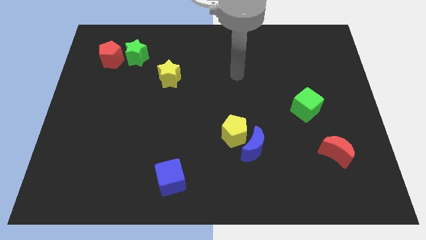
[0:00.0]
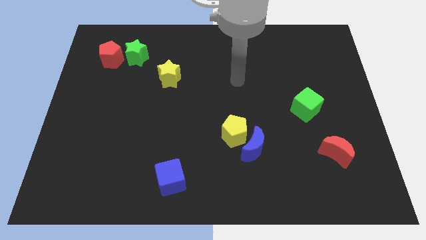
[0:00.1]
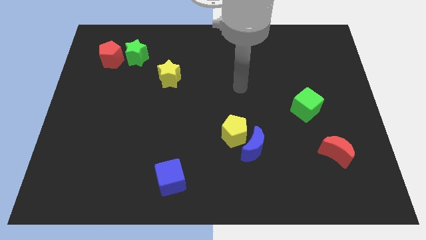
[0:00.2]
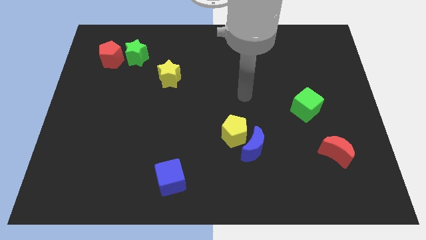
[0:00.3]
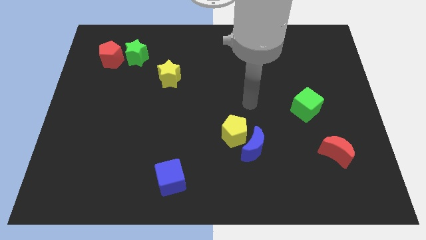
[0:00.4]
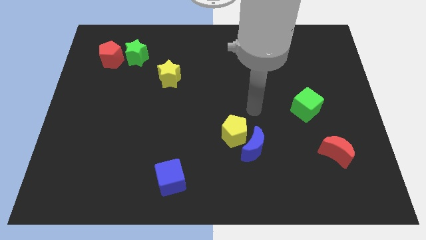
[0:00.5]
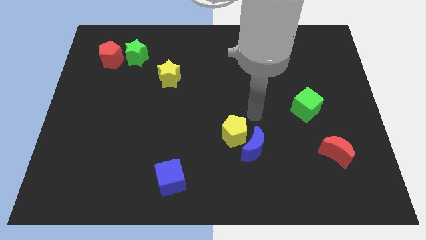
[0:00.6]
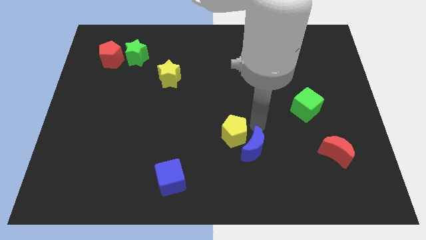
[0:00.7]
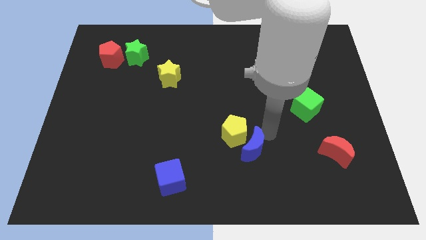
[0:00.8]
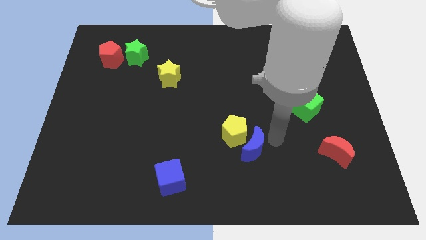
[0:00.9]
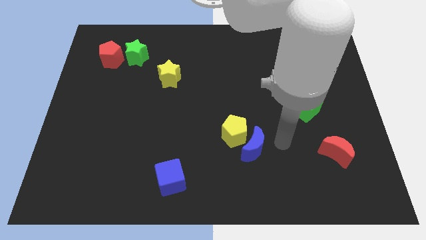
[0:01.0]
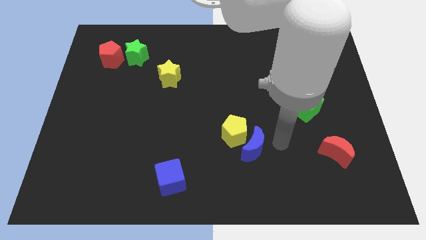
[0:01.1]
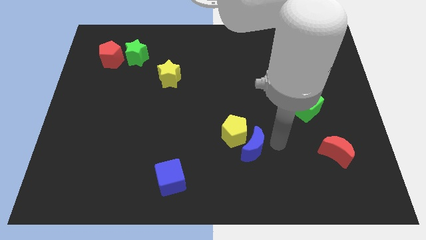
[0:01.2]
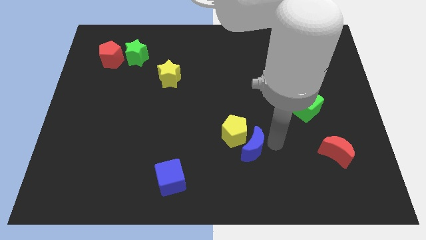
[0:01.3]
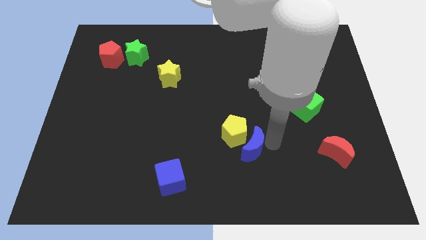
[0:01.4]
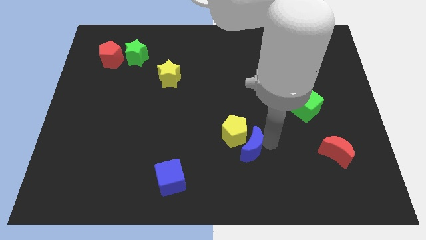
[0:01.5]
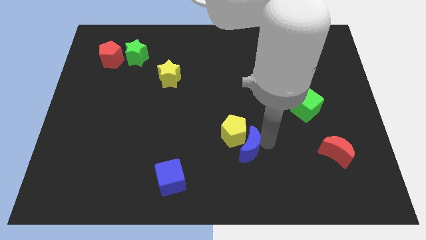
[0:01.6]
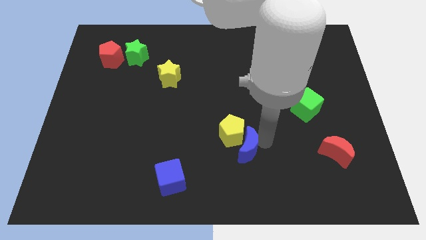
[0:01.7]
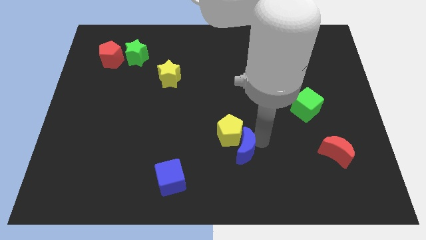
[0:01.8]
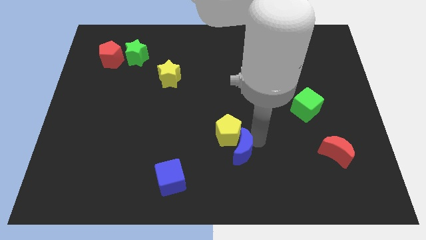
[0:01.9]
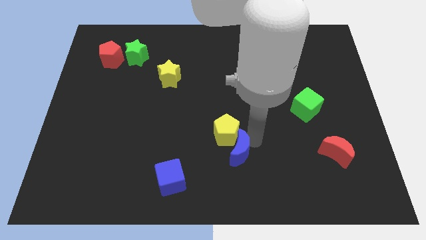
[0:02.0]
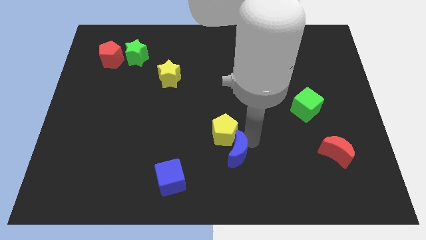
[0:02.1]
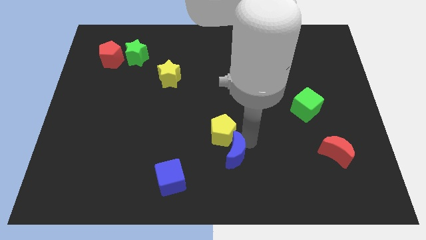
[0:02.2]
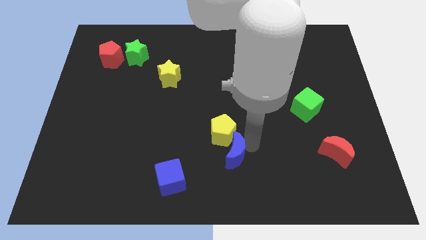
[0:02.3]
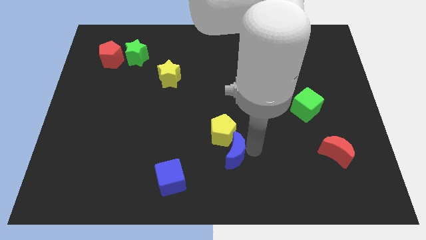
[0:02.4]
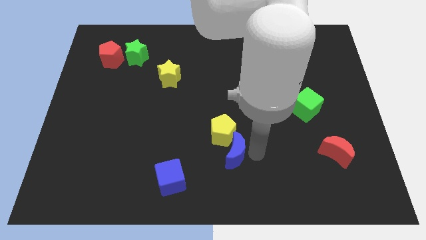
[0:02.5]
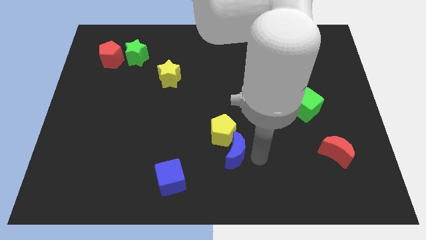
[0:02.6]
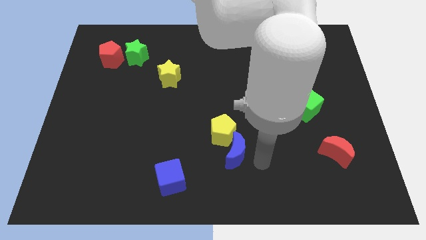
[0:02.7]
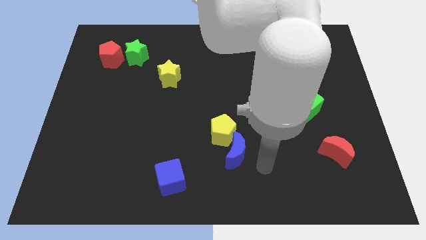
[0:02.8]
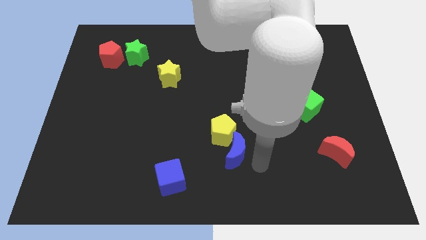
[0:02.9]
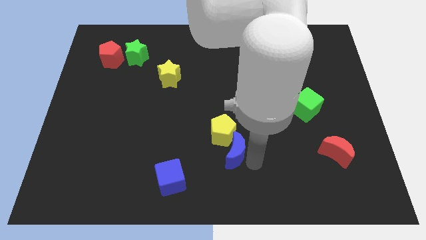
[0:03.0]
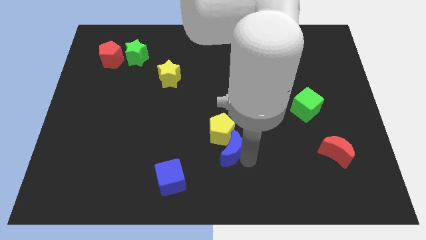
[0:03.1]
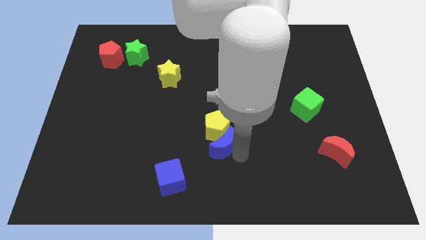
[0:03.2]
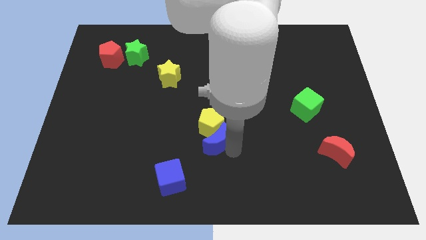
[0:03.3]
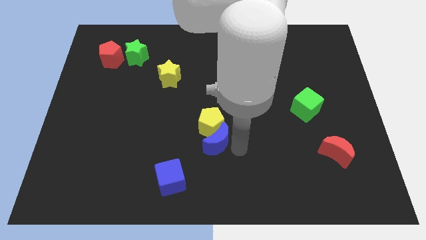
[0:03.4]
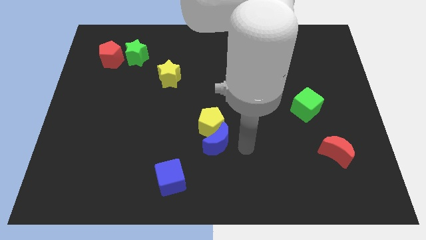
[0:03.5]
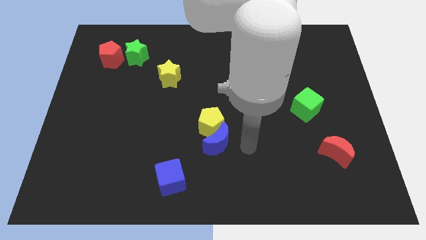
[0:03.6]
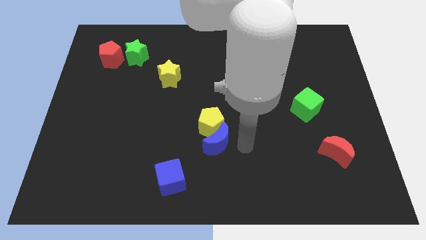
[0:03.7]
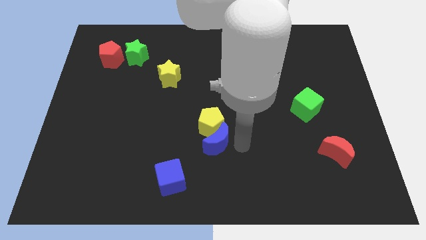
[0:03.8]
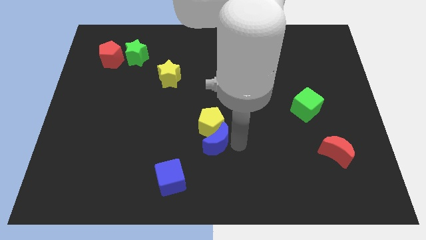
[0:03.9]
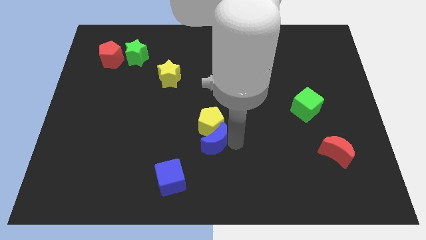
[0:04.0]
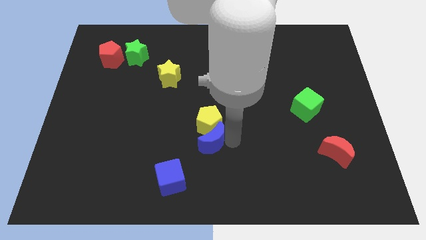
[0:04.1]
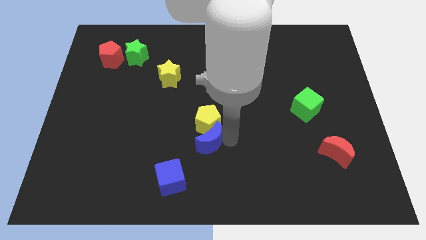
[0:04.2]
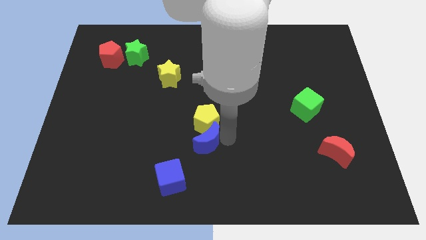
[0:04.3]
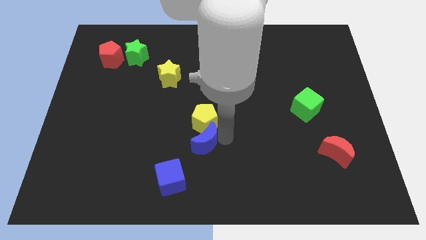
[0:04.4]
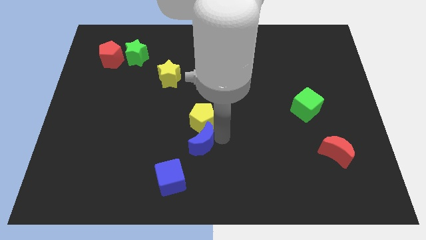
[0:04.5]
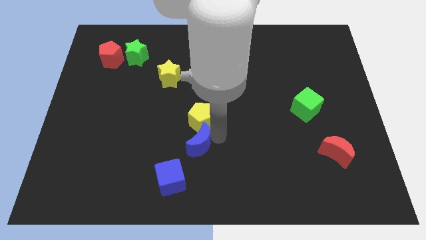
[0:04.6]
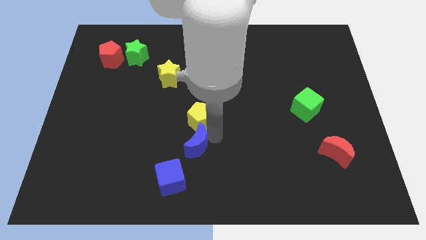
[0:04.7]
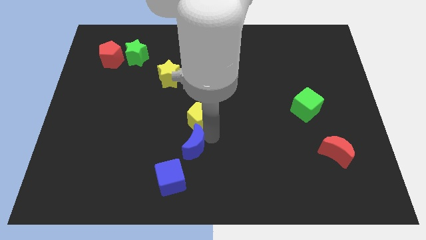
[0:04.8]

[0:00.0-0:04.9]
put the blue moon above the blue cube

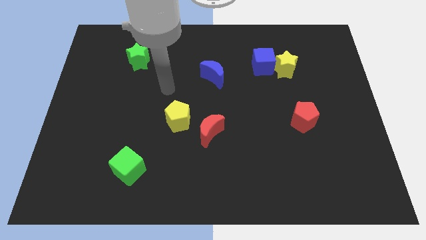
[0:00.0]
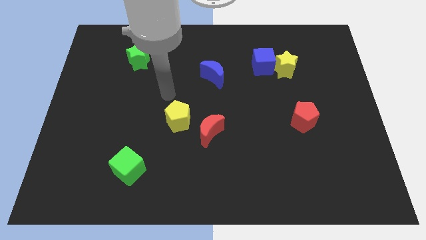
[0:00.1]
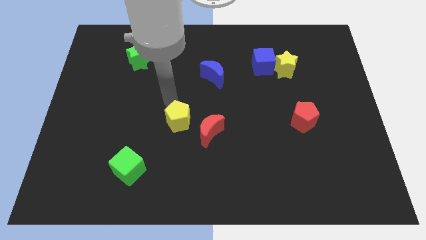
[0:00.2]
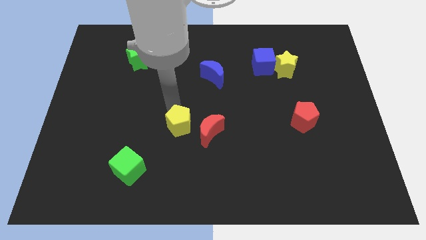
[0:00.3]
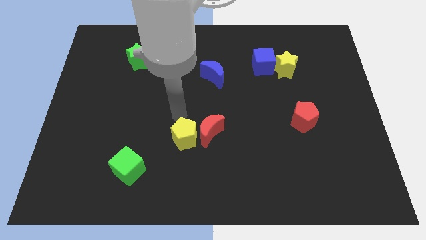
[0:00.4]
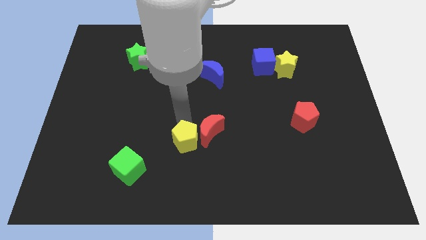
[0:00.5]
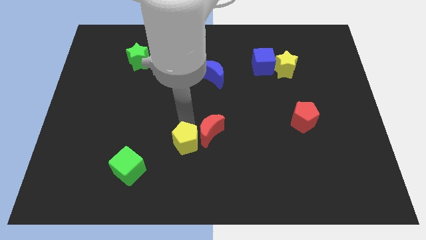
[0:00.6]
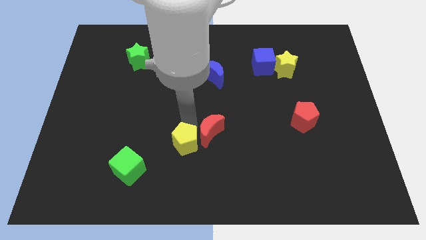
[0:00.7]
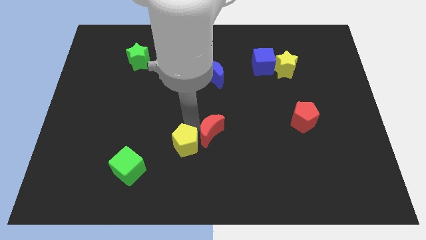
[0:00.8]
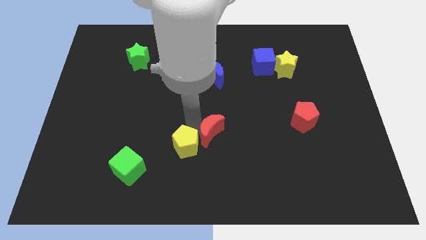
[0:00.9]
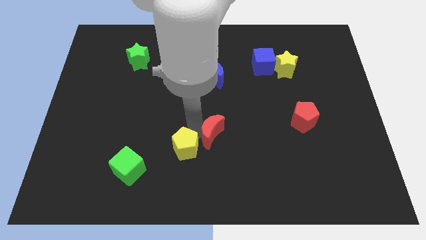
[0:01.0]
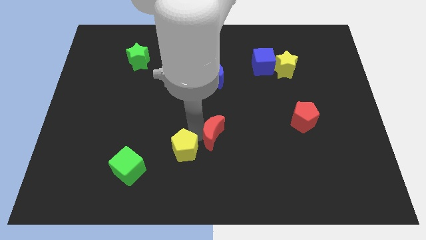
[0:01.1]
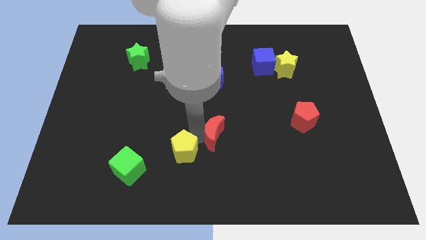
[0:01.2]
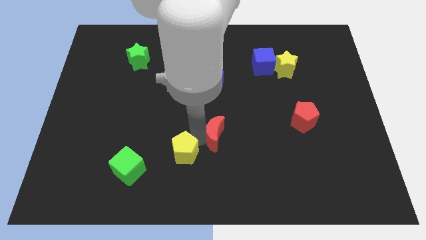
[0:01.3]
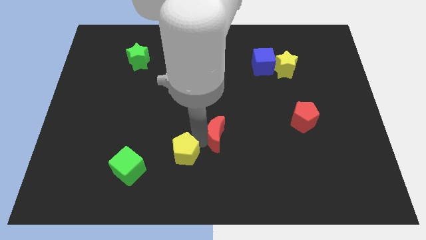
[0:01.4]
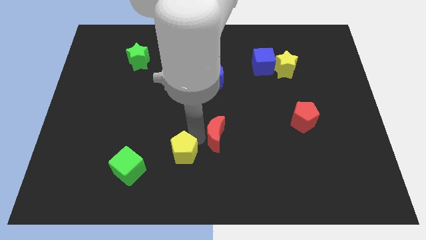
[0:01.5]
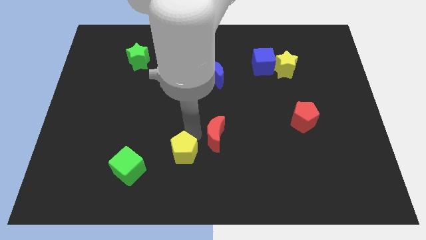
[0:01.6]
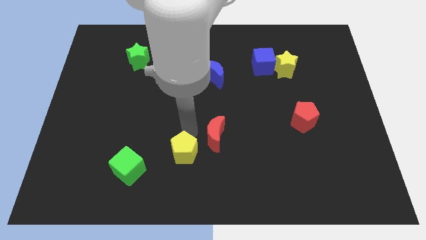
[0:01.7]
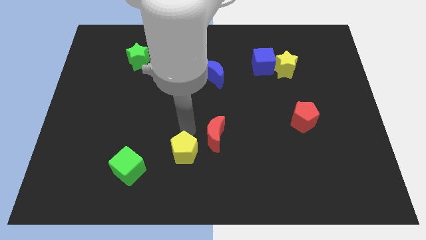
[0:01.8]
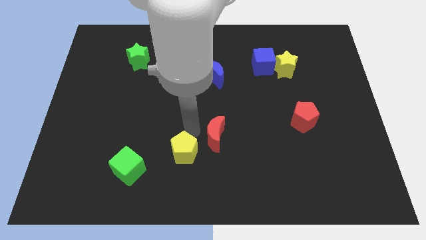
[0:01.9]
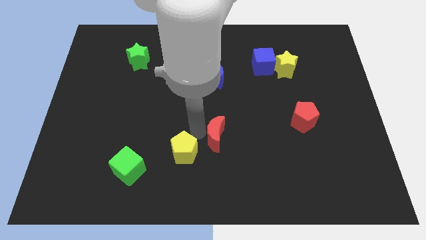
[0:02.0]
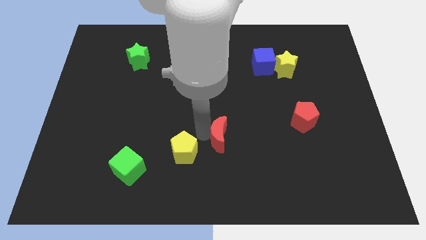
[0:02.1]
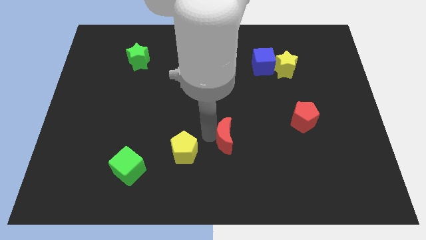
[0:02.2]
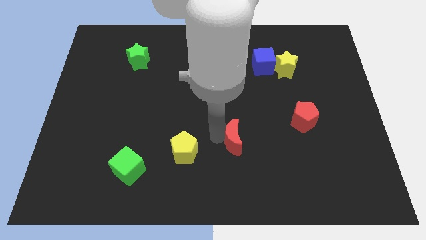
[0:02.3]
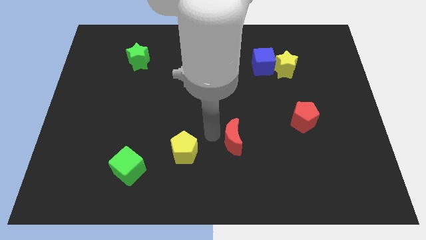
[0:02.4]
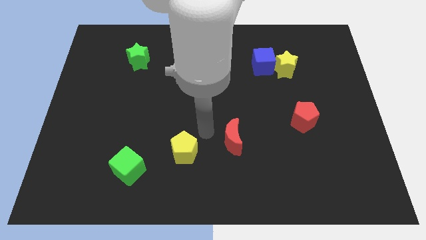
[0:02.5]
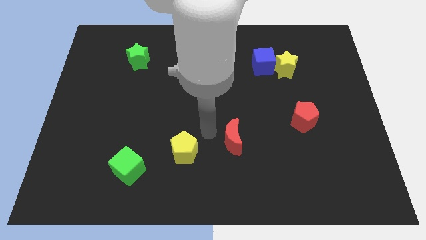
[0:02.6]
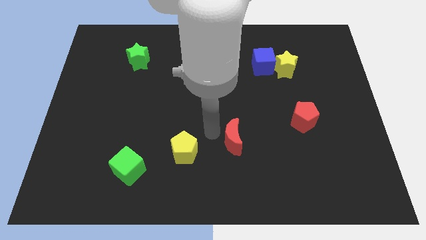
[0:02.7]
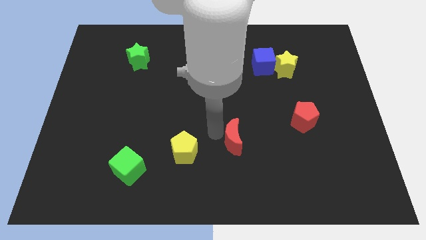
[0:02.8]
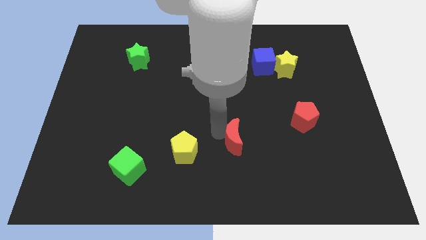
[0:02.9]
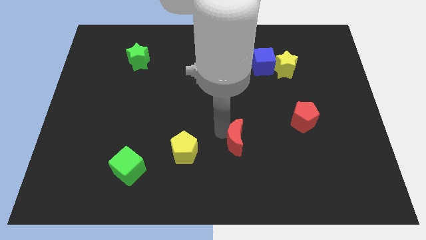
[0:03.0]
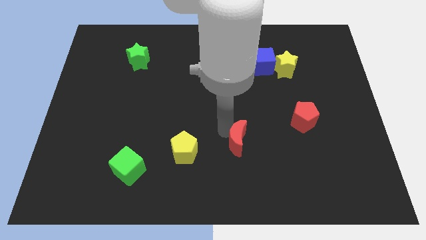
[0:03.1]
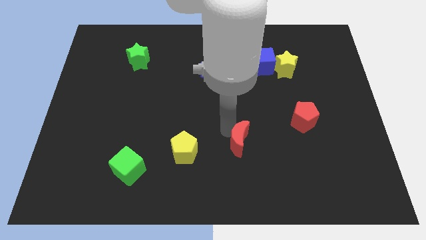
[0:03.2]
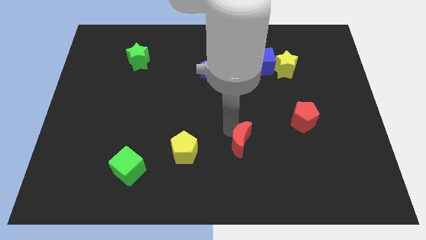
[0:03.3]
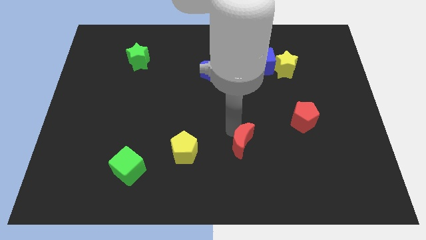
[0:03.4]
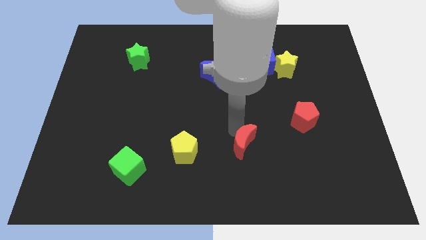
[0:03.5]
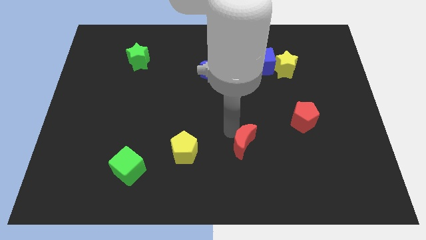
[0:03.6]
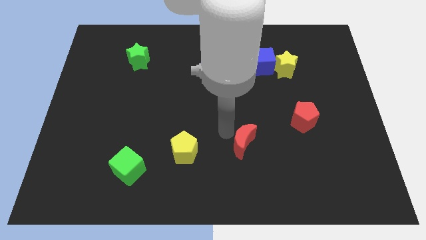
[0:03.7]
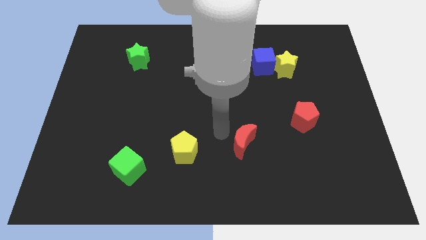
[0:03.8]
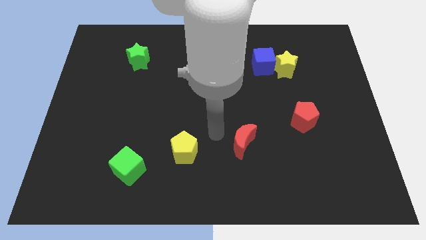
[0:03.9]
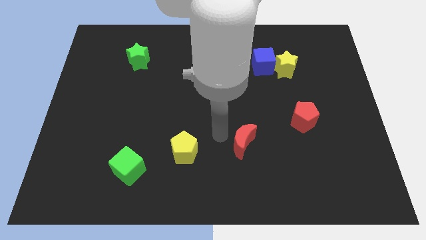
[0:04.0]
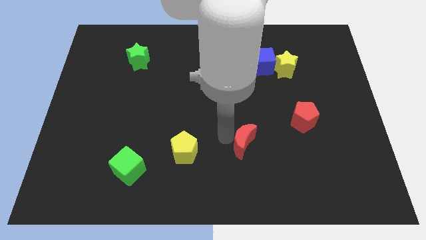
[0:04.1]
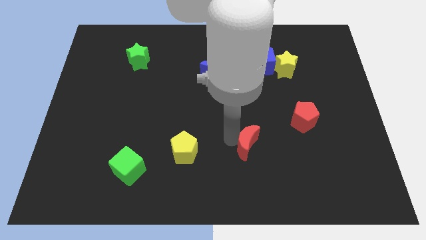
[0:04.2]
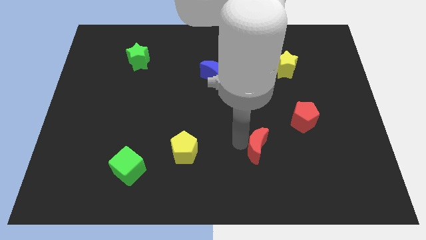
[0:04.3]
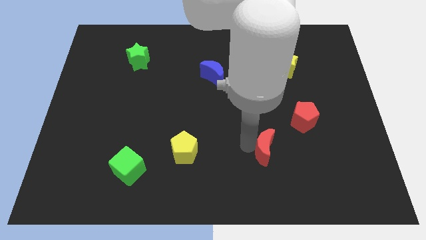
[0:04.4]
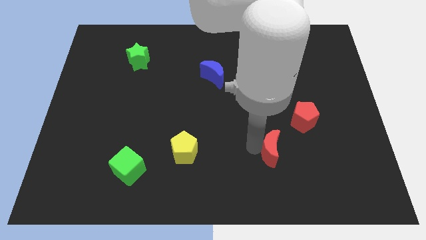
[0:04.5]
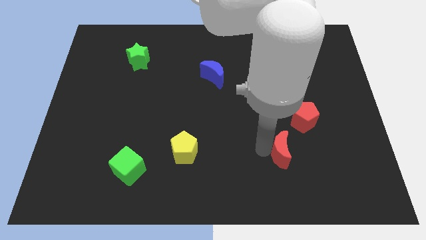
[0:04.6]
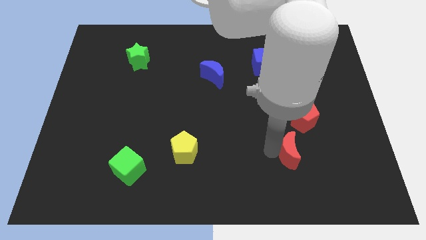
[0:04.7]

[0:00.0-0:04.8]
move the red moon below the red pentagon
